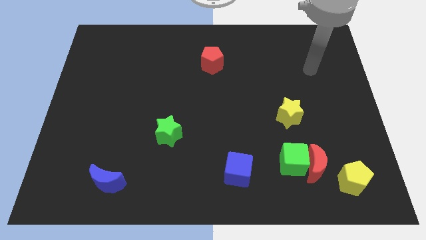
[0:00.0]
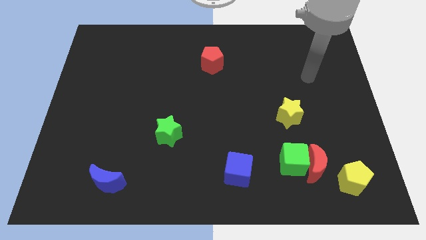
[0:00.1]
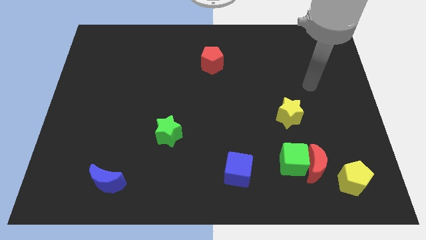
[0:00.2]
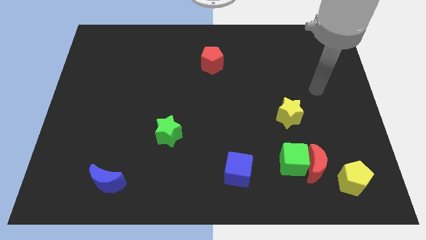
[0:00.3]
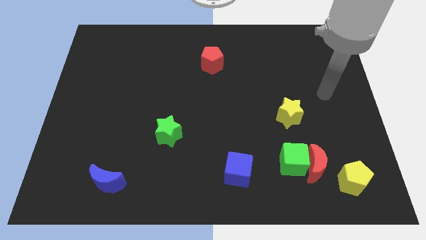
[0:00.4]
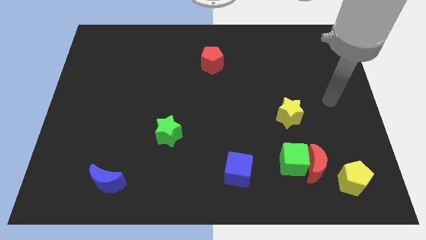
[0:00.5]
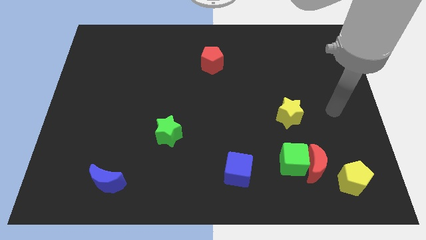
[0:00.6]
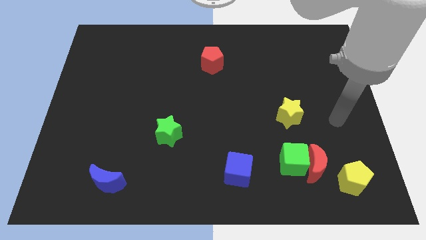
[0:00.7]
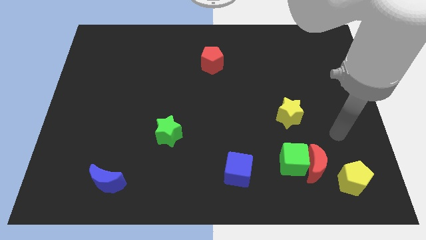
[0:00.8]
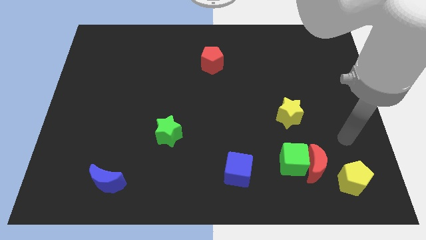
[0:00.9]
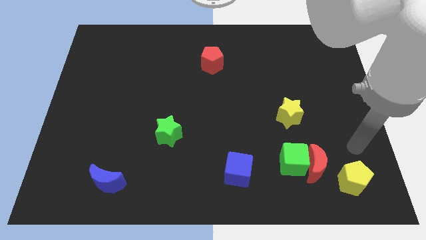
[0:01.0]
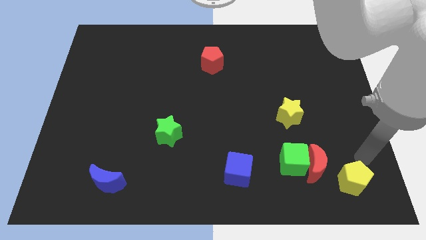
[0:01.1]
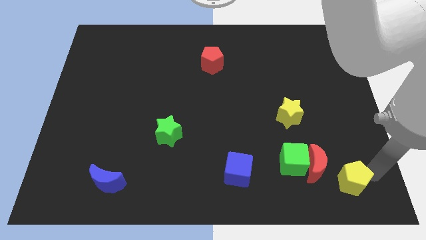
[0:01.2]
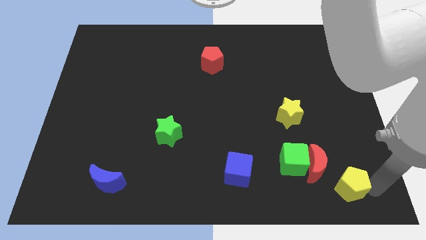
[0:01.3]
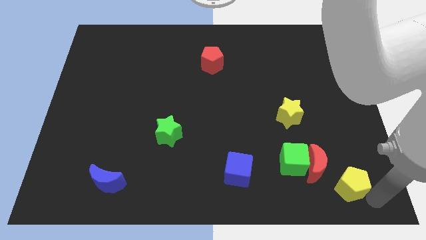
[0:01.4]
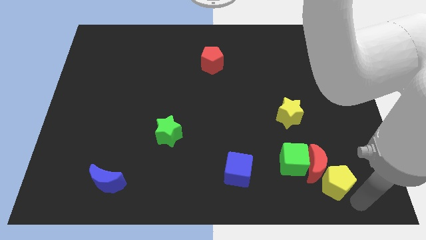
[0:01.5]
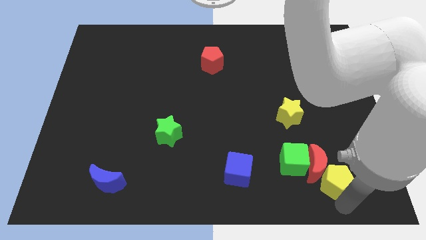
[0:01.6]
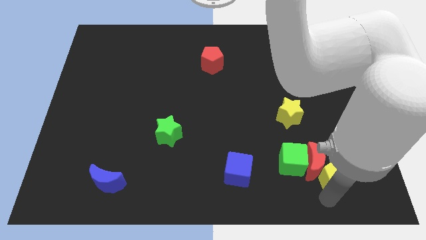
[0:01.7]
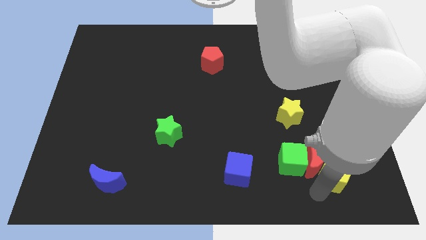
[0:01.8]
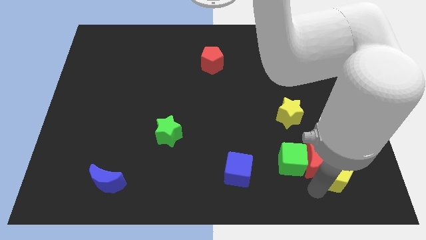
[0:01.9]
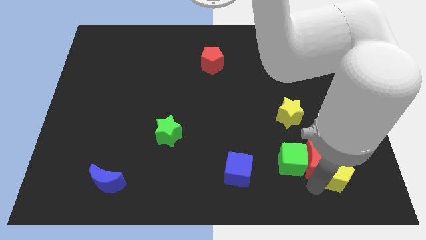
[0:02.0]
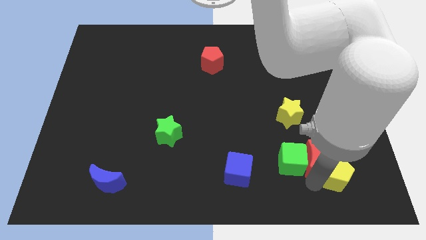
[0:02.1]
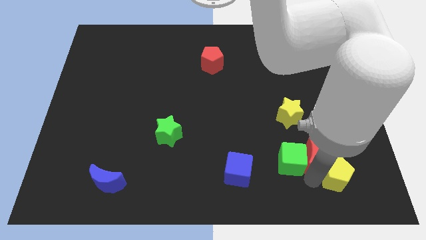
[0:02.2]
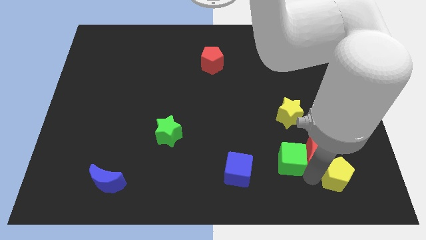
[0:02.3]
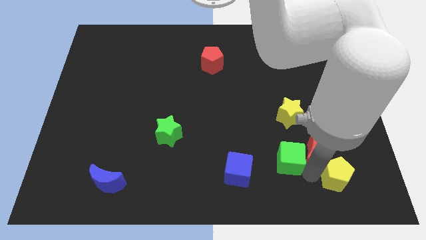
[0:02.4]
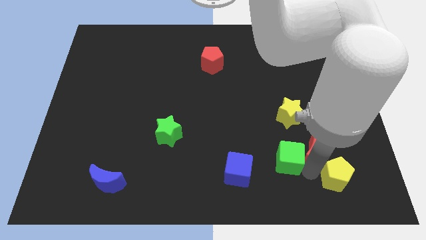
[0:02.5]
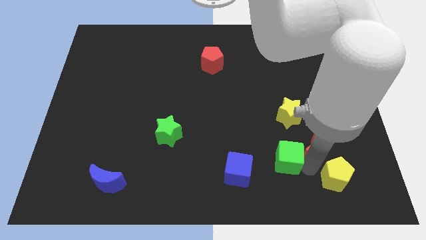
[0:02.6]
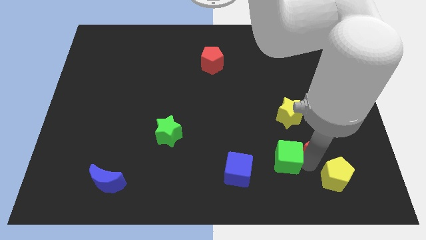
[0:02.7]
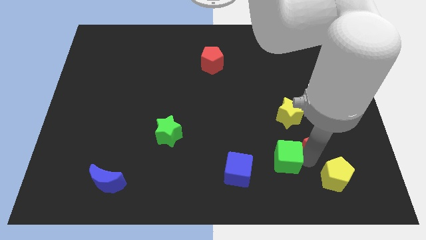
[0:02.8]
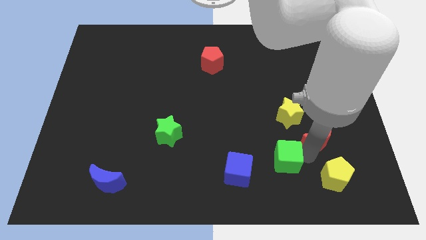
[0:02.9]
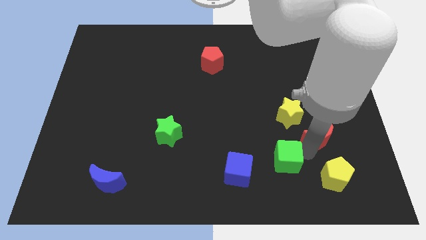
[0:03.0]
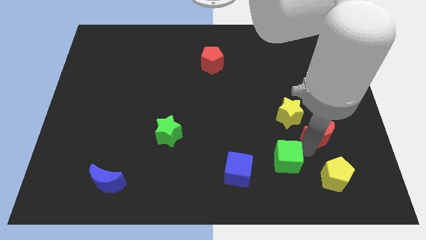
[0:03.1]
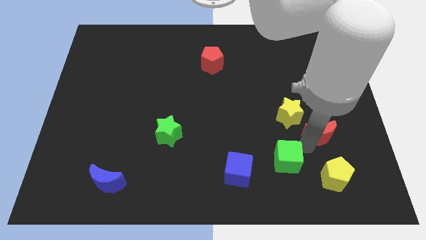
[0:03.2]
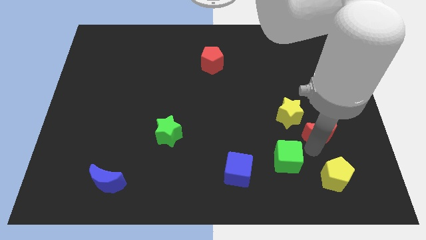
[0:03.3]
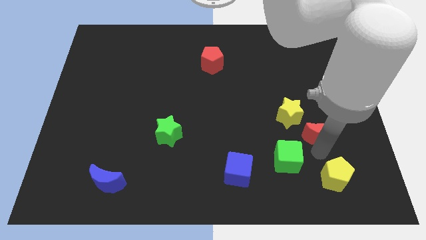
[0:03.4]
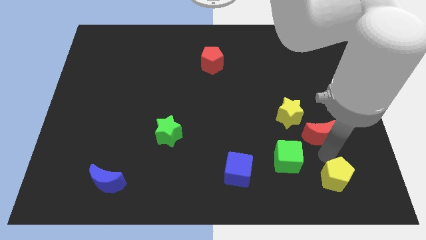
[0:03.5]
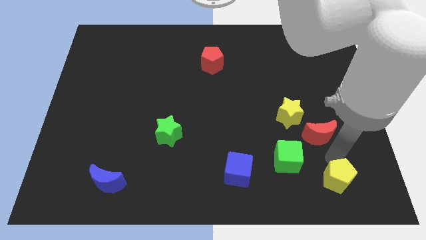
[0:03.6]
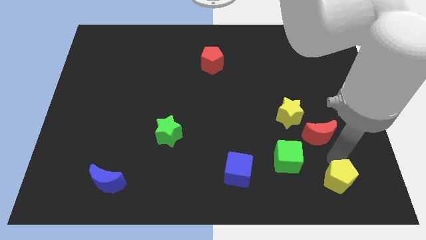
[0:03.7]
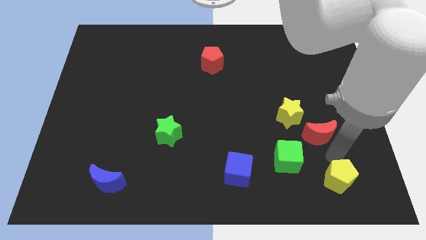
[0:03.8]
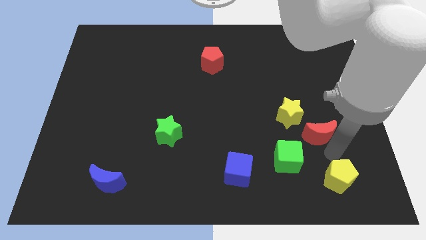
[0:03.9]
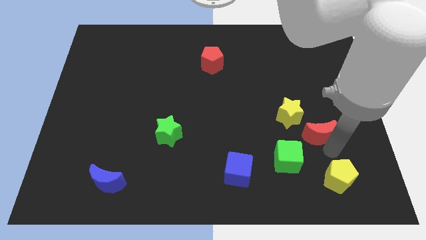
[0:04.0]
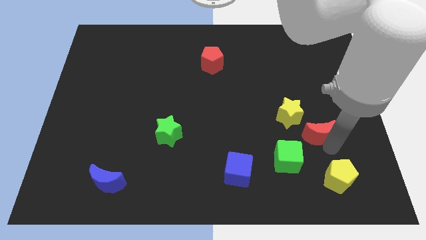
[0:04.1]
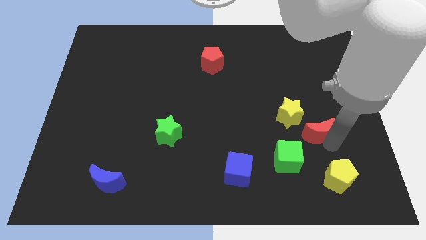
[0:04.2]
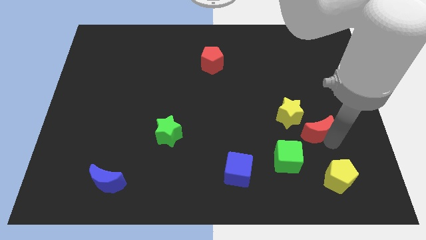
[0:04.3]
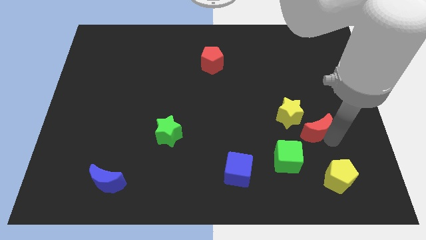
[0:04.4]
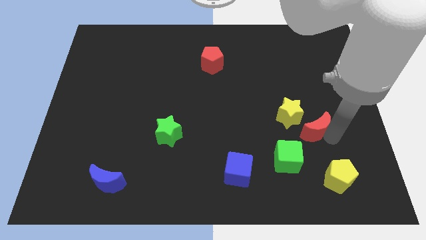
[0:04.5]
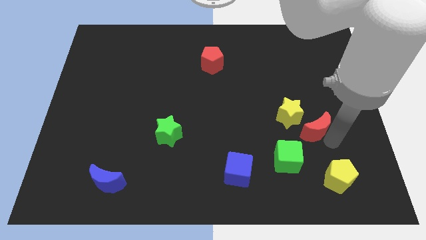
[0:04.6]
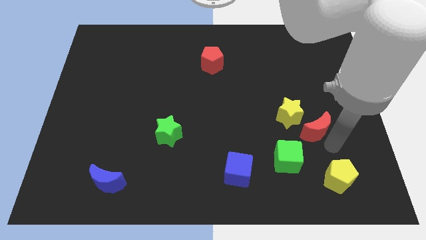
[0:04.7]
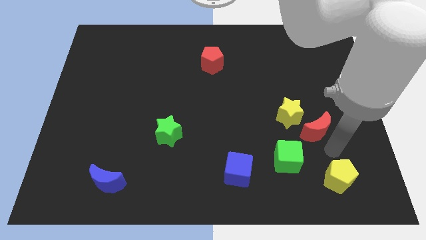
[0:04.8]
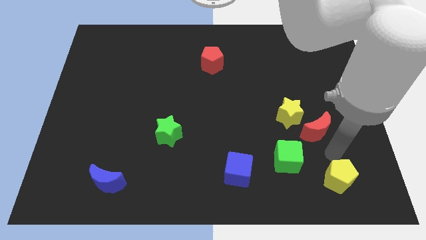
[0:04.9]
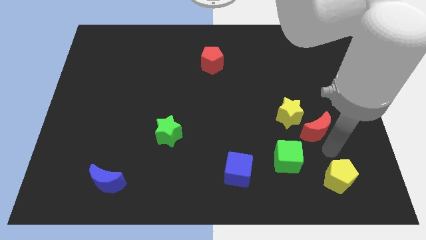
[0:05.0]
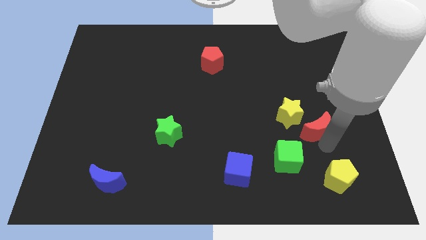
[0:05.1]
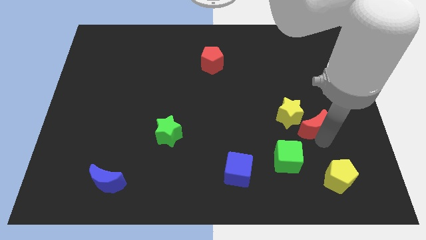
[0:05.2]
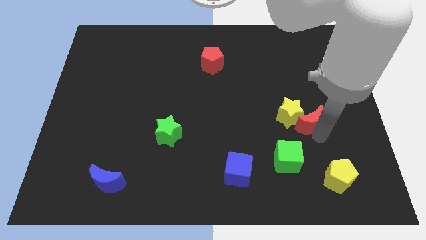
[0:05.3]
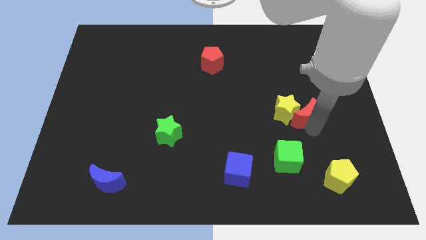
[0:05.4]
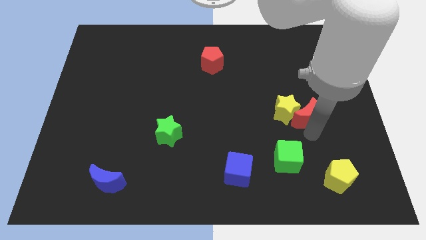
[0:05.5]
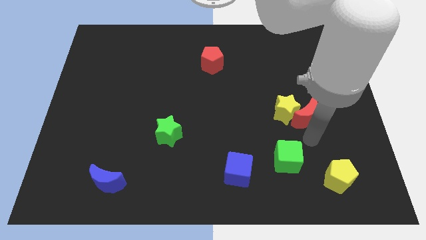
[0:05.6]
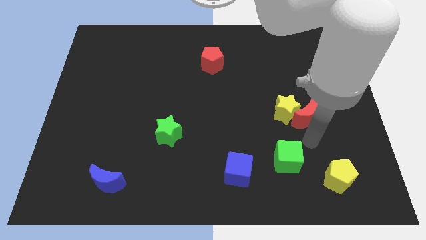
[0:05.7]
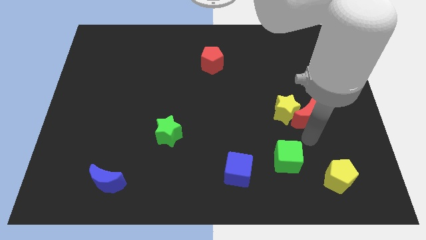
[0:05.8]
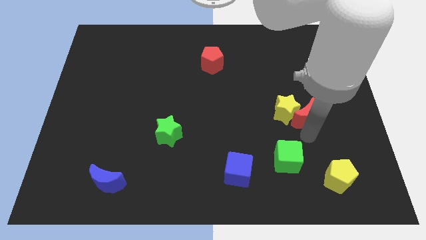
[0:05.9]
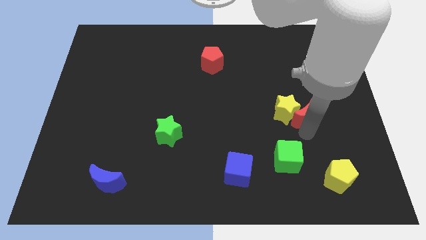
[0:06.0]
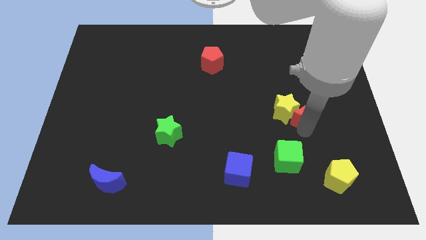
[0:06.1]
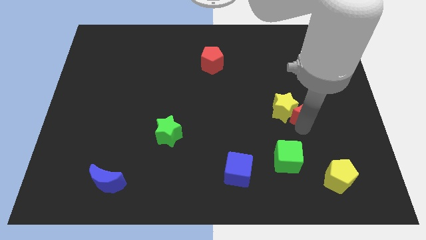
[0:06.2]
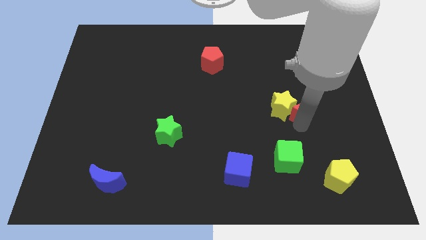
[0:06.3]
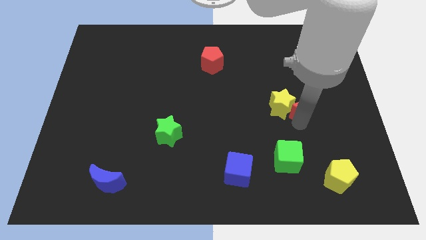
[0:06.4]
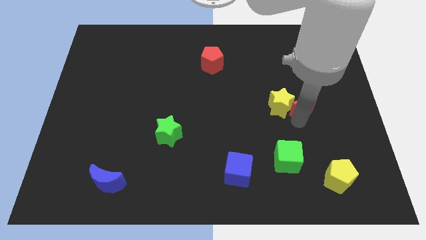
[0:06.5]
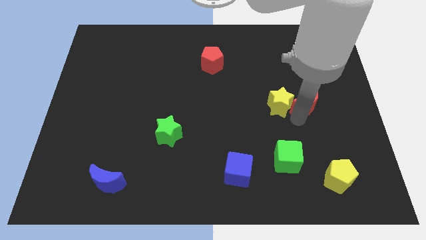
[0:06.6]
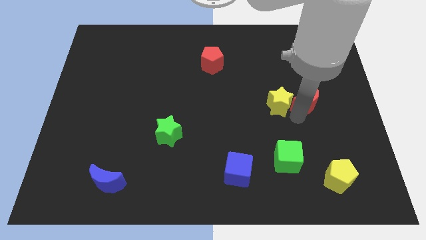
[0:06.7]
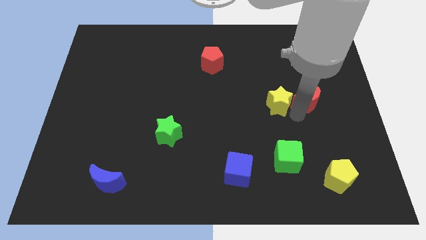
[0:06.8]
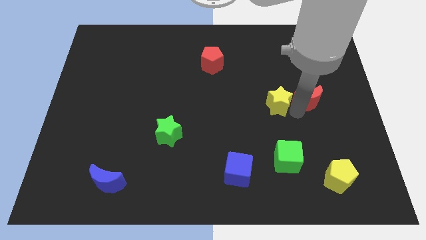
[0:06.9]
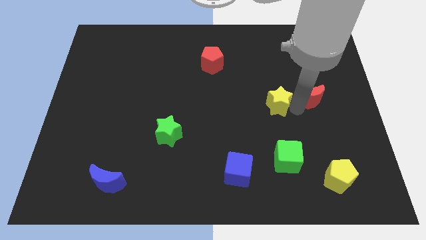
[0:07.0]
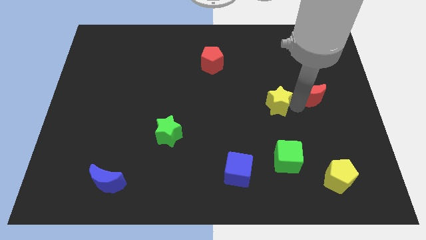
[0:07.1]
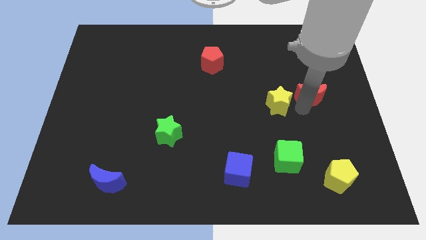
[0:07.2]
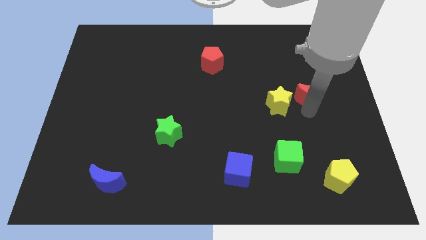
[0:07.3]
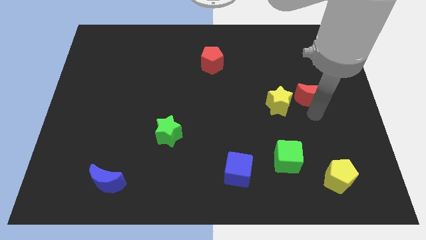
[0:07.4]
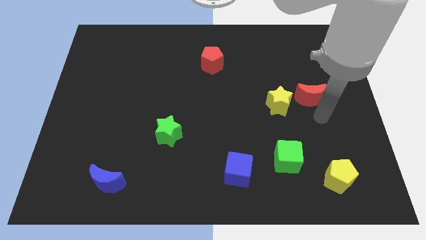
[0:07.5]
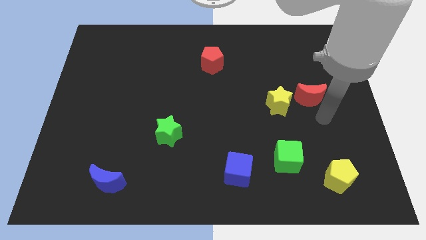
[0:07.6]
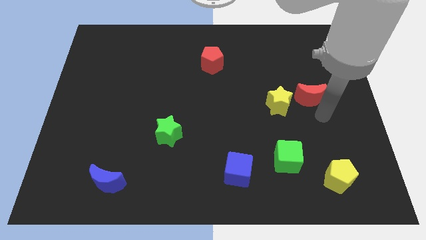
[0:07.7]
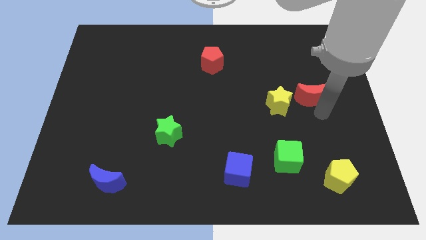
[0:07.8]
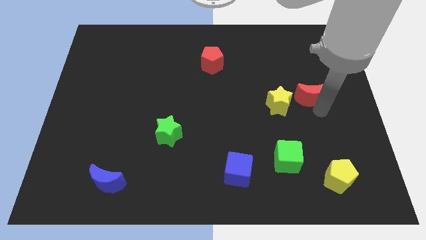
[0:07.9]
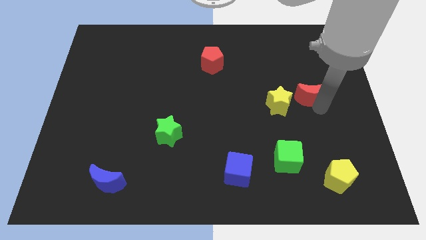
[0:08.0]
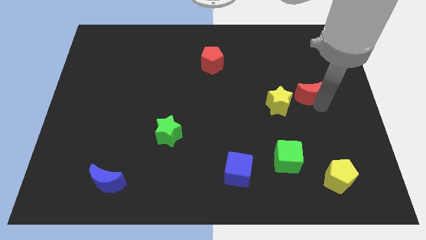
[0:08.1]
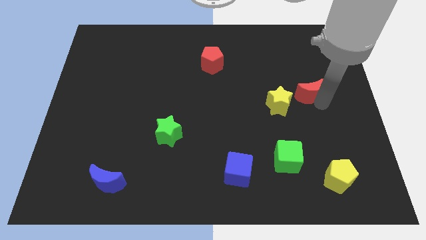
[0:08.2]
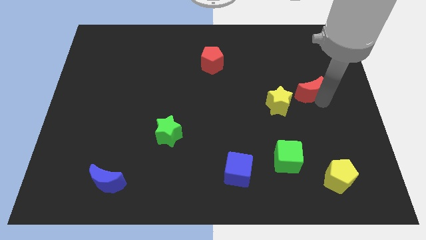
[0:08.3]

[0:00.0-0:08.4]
move the red moon up

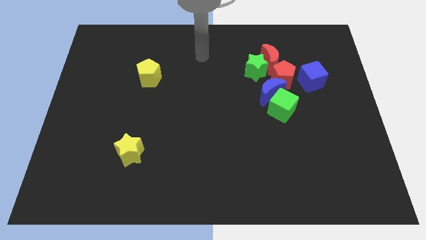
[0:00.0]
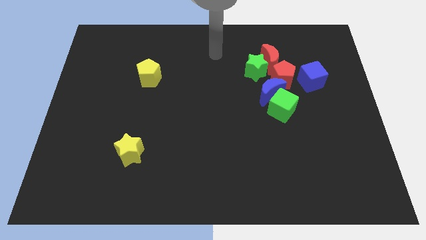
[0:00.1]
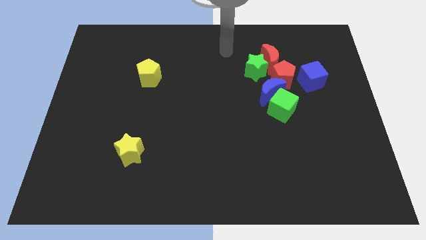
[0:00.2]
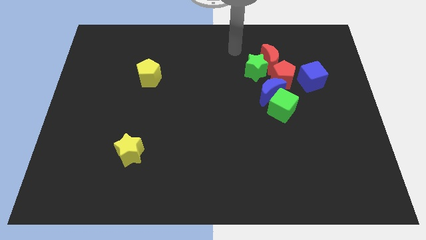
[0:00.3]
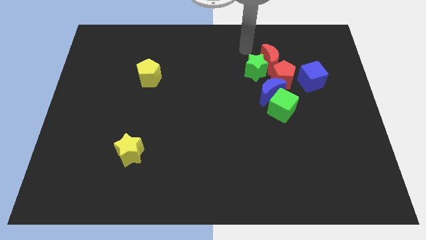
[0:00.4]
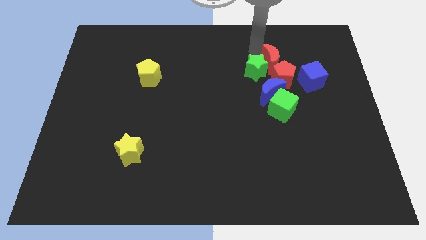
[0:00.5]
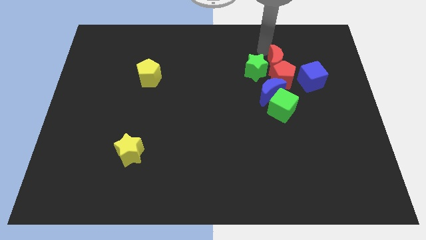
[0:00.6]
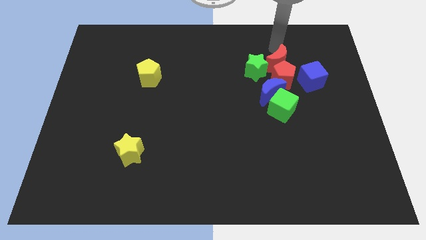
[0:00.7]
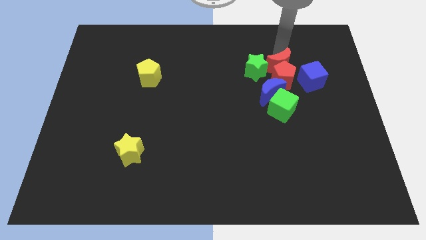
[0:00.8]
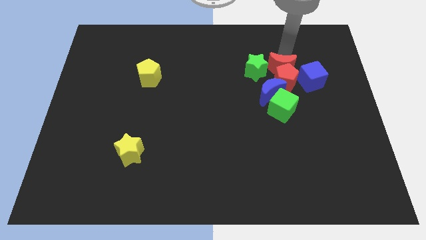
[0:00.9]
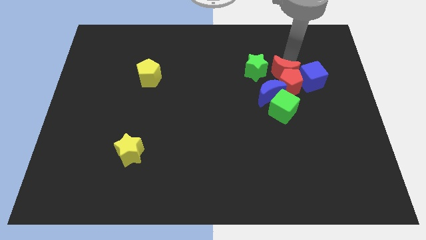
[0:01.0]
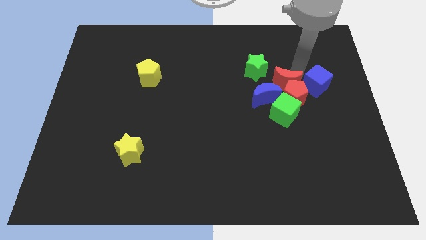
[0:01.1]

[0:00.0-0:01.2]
move the red moon down somewhat
